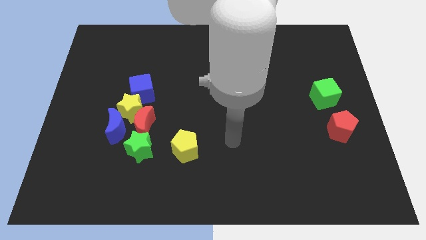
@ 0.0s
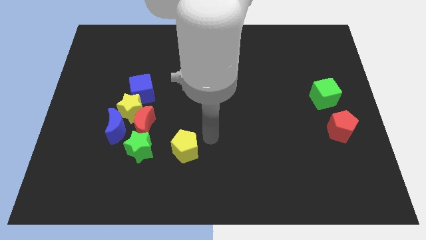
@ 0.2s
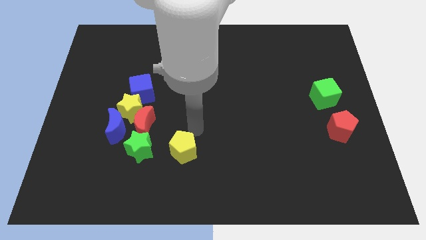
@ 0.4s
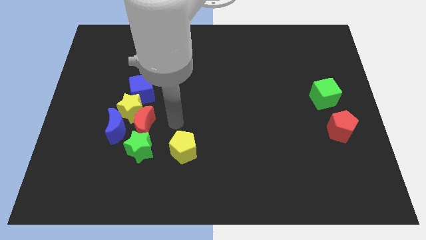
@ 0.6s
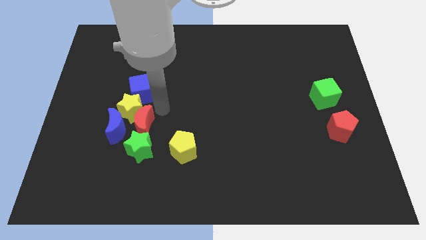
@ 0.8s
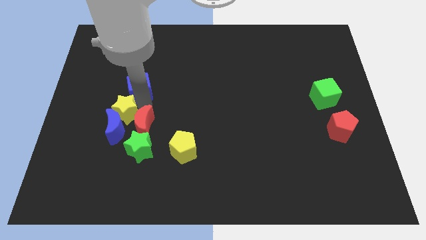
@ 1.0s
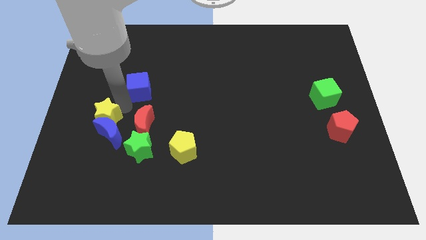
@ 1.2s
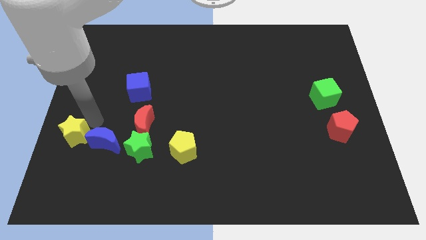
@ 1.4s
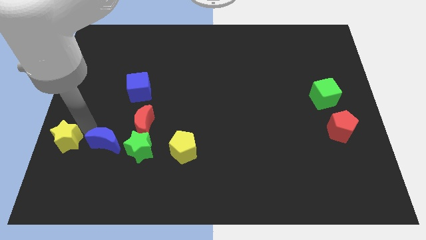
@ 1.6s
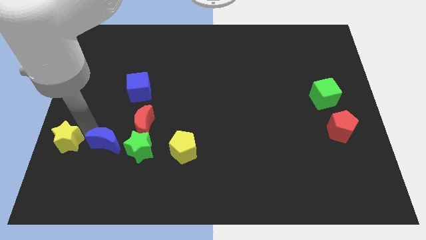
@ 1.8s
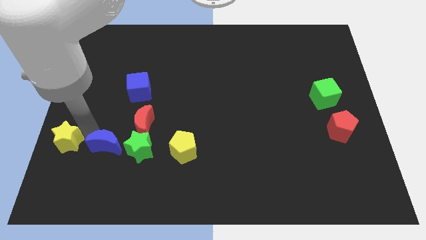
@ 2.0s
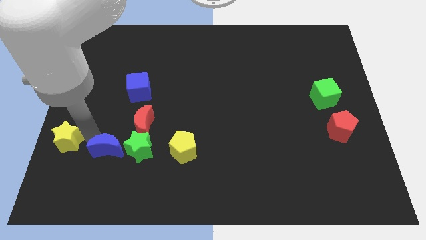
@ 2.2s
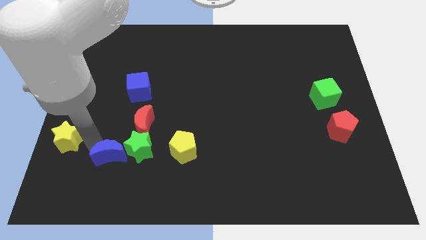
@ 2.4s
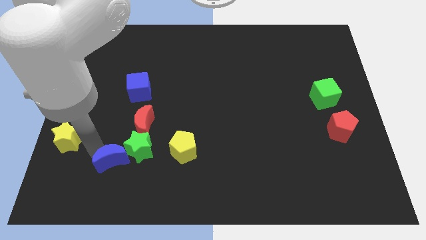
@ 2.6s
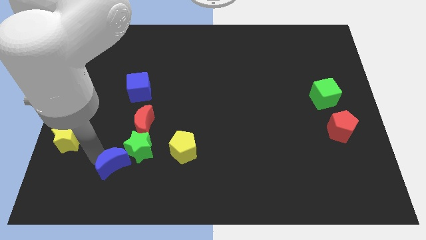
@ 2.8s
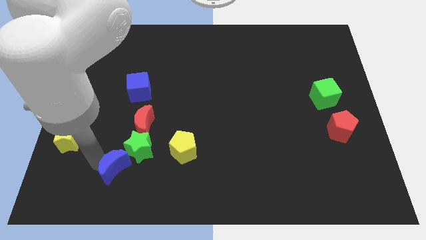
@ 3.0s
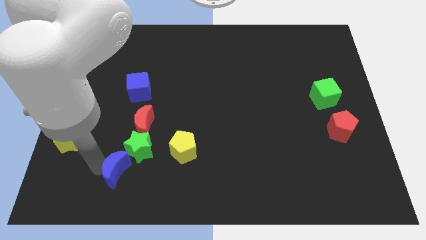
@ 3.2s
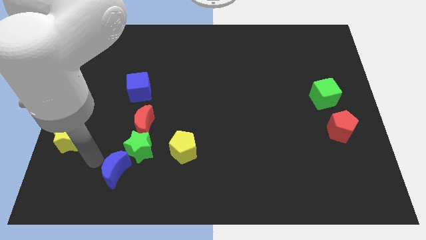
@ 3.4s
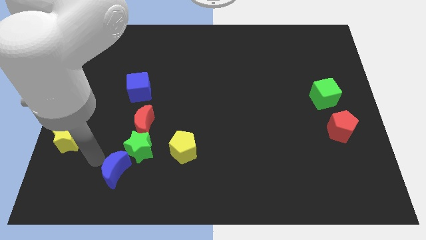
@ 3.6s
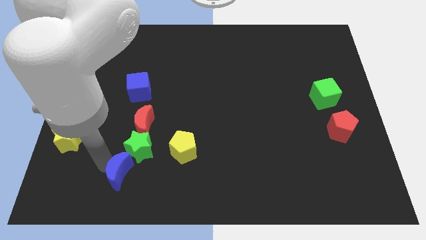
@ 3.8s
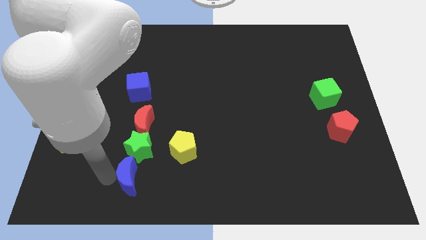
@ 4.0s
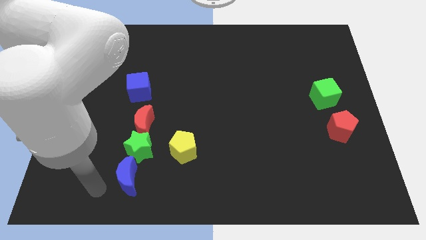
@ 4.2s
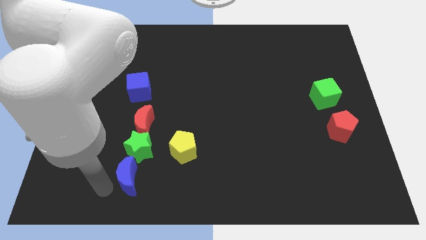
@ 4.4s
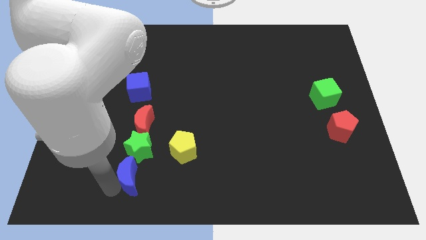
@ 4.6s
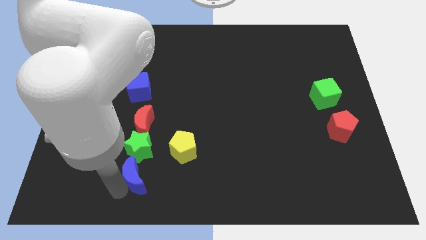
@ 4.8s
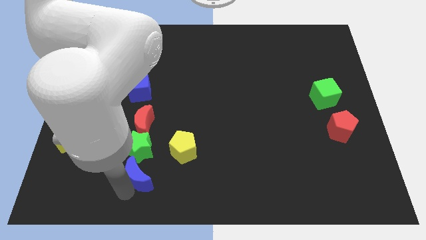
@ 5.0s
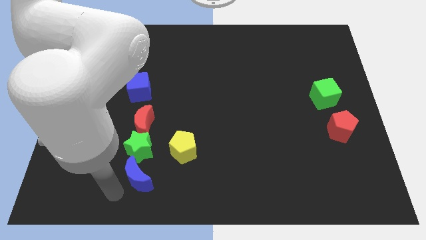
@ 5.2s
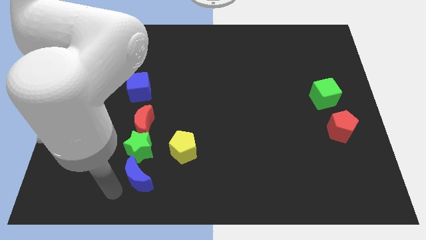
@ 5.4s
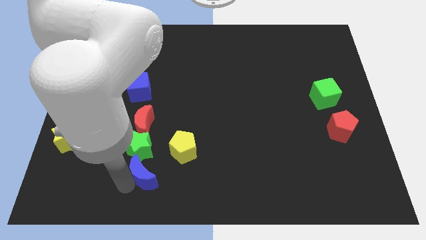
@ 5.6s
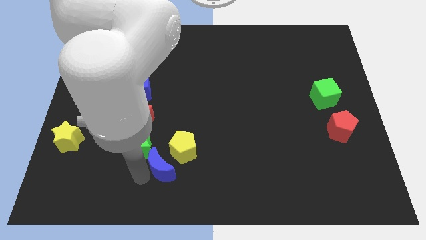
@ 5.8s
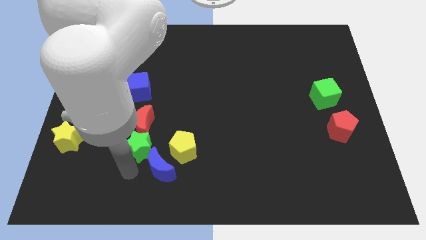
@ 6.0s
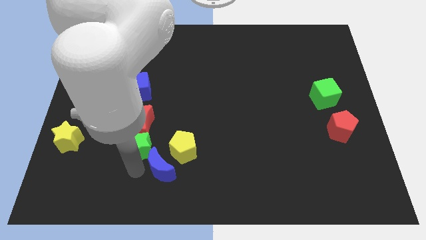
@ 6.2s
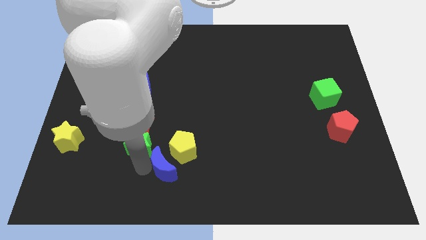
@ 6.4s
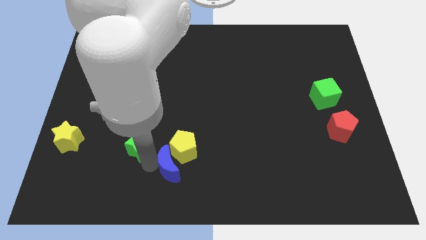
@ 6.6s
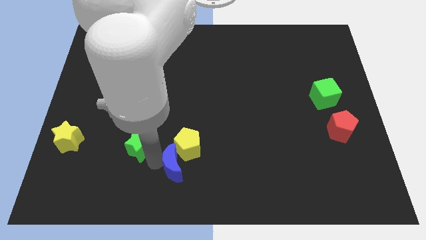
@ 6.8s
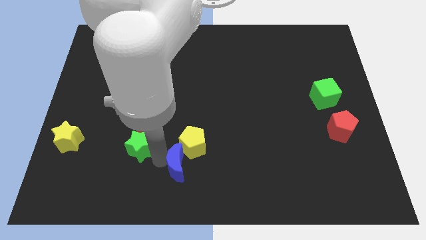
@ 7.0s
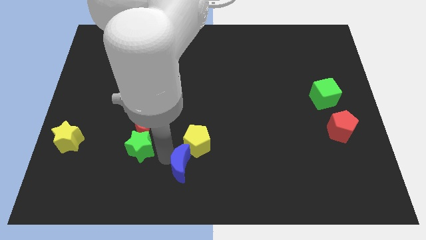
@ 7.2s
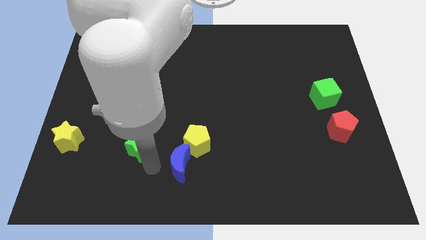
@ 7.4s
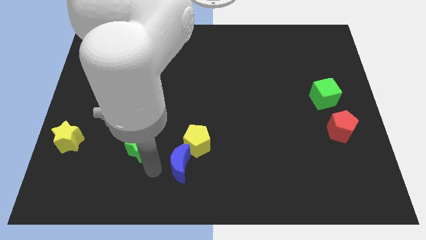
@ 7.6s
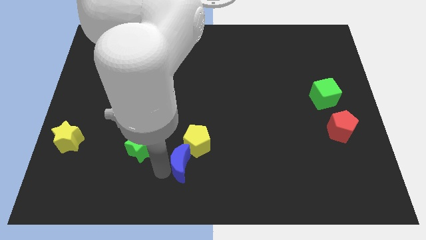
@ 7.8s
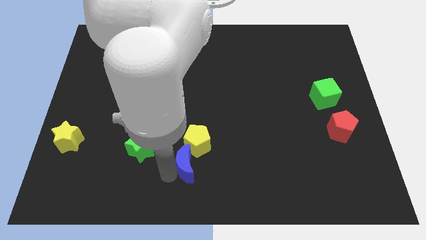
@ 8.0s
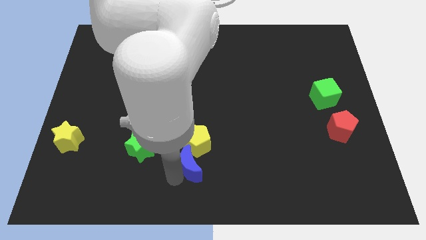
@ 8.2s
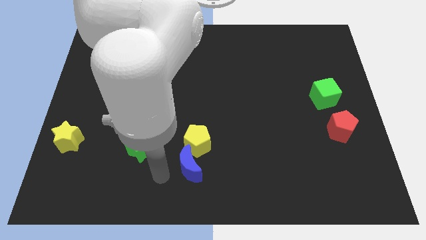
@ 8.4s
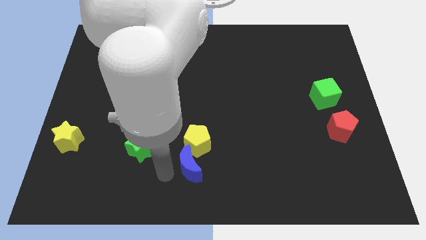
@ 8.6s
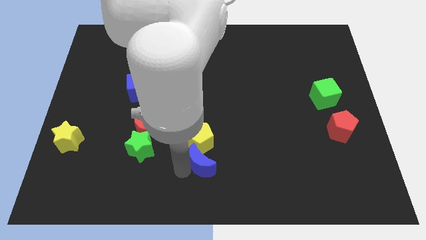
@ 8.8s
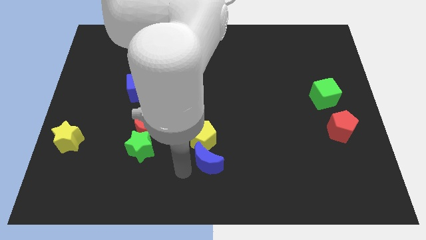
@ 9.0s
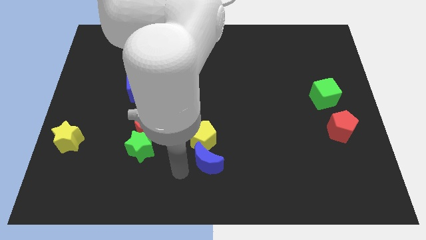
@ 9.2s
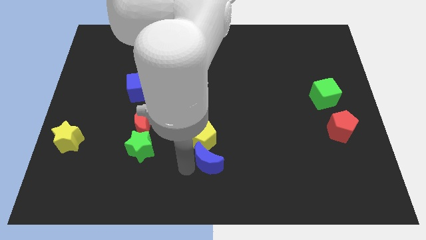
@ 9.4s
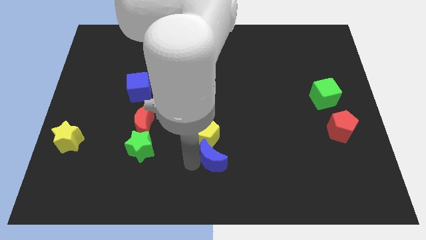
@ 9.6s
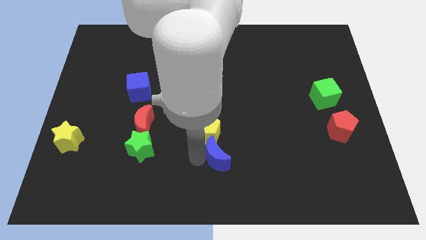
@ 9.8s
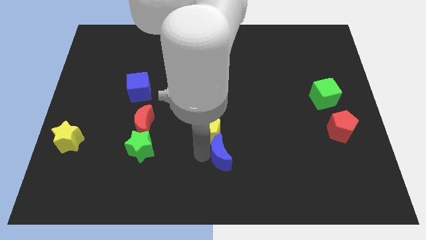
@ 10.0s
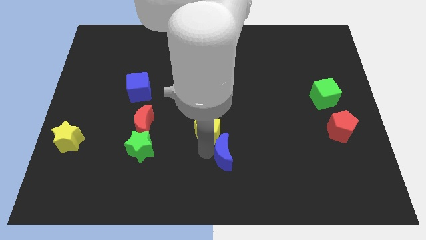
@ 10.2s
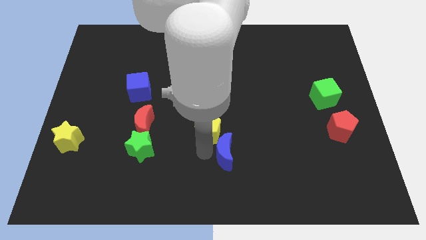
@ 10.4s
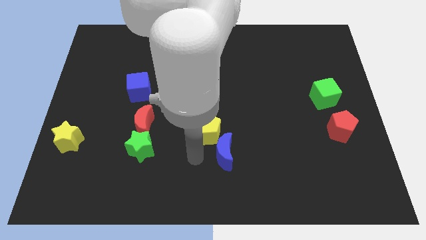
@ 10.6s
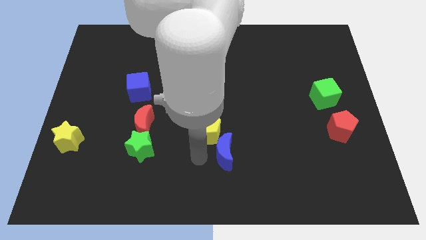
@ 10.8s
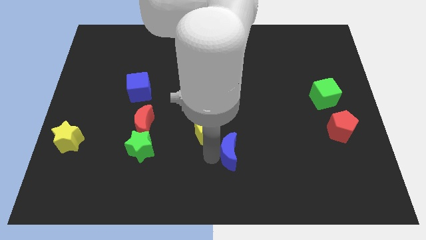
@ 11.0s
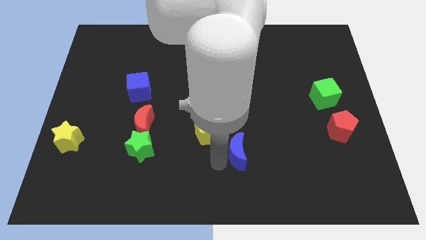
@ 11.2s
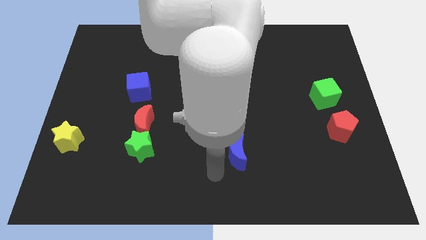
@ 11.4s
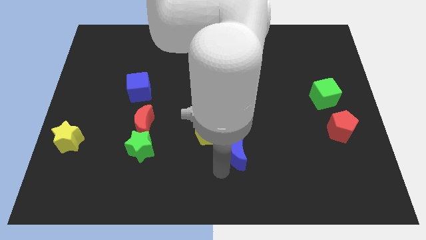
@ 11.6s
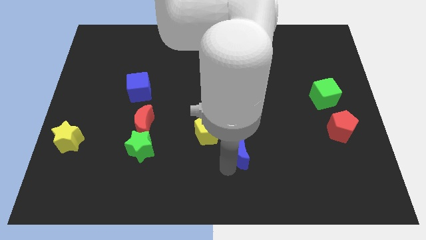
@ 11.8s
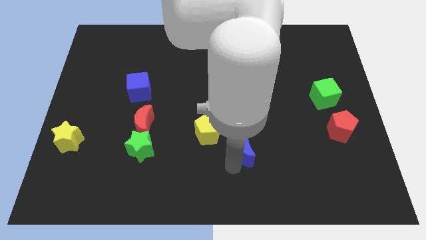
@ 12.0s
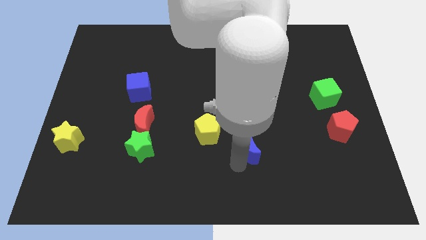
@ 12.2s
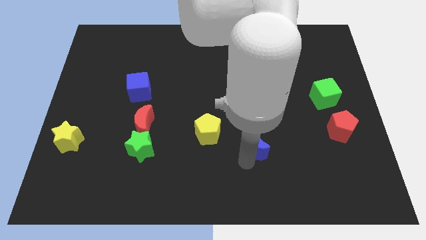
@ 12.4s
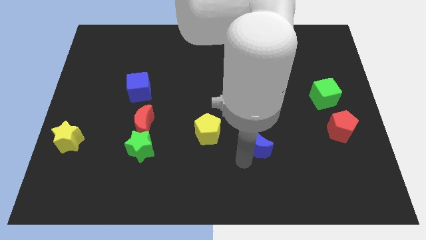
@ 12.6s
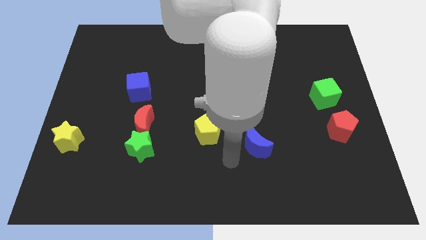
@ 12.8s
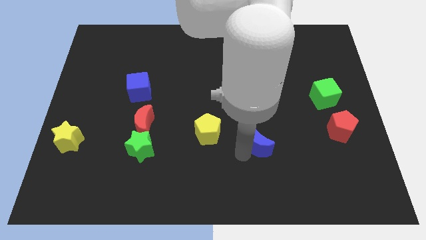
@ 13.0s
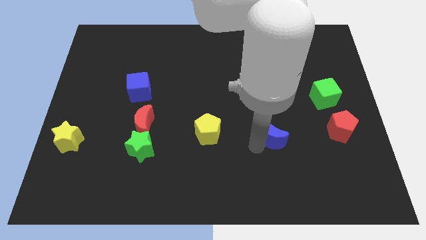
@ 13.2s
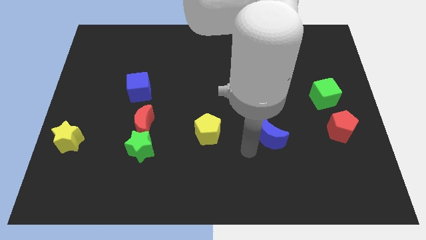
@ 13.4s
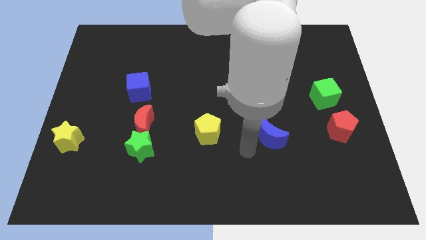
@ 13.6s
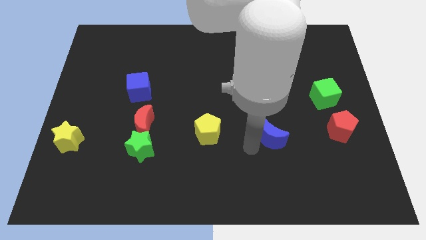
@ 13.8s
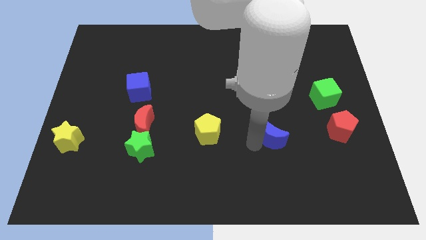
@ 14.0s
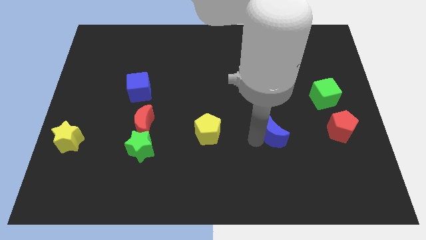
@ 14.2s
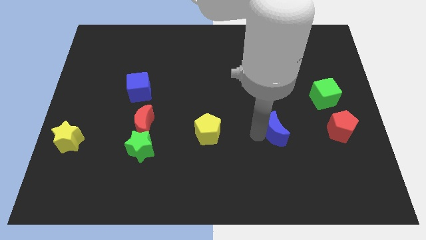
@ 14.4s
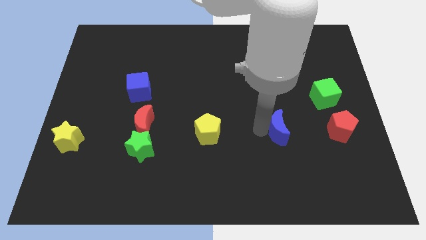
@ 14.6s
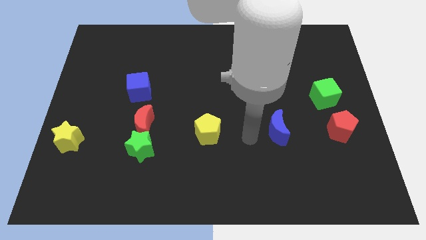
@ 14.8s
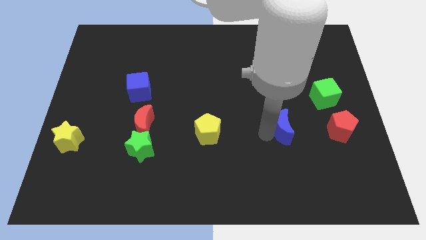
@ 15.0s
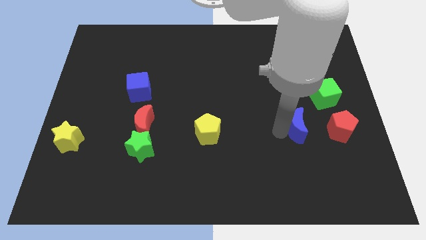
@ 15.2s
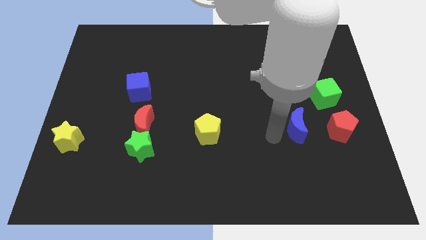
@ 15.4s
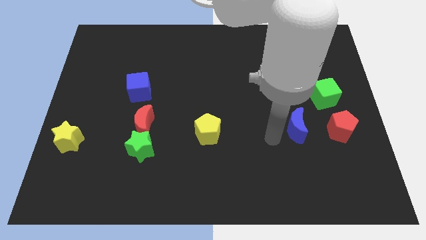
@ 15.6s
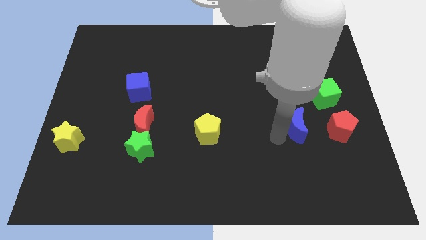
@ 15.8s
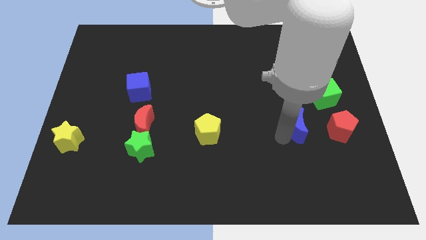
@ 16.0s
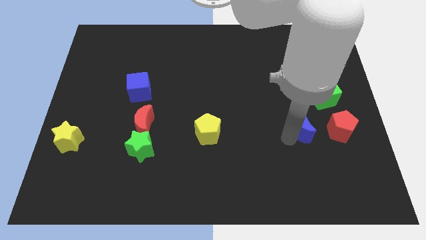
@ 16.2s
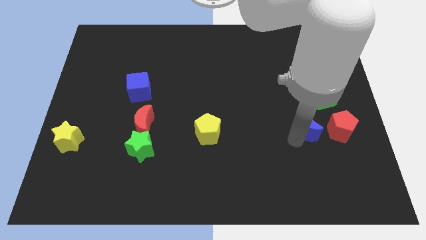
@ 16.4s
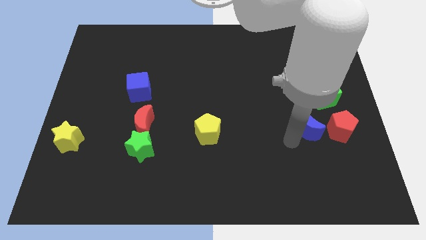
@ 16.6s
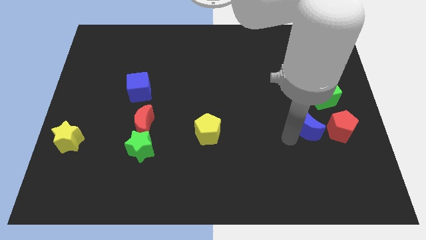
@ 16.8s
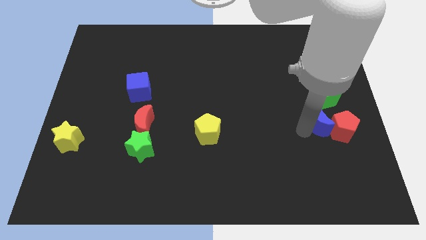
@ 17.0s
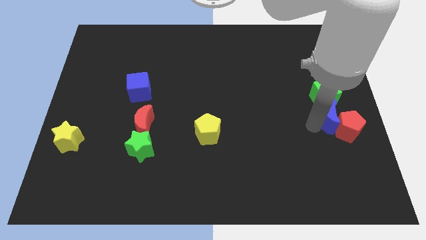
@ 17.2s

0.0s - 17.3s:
move the blue moon to the right side
